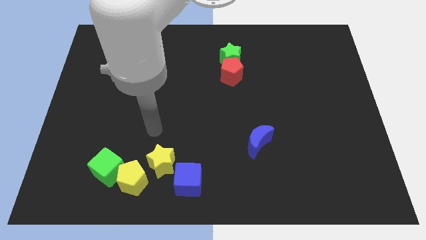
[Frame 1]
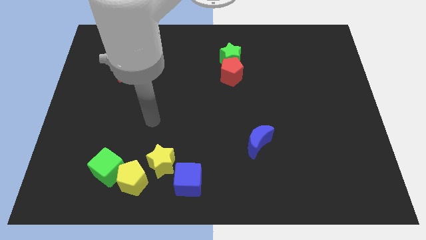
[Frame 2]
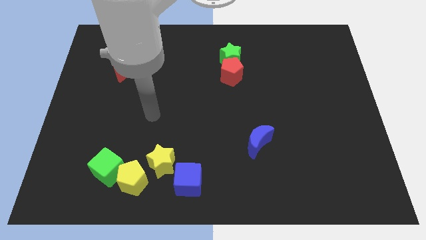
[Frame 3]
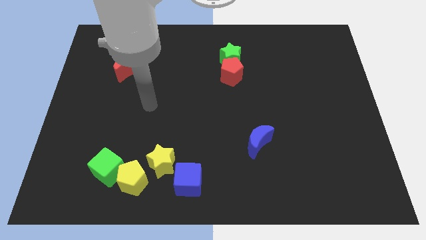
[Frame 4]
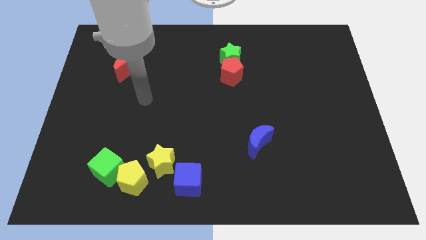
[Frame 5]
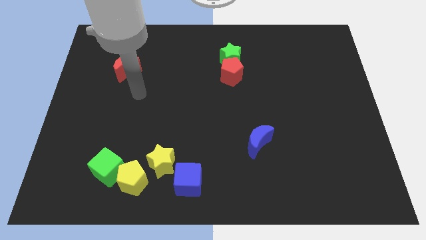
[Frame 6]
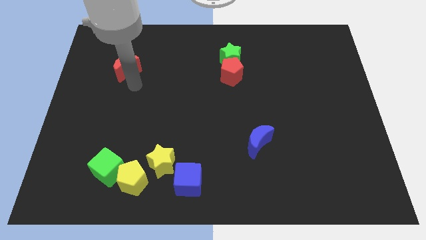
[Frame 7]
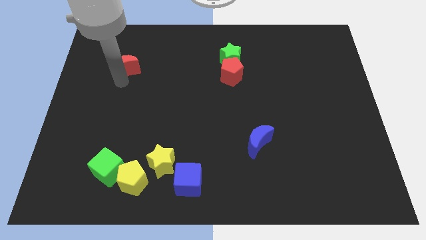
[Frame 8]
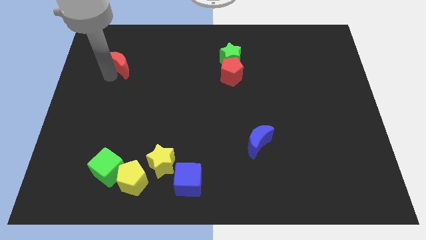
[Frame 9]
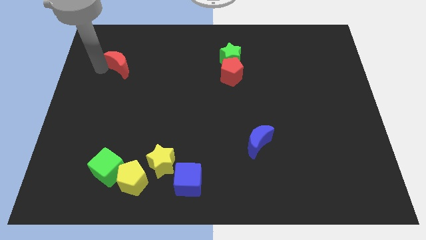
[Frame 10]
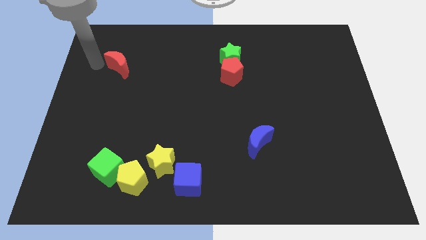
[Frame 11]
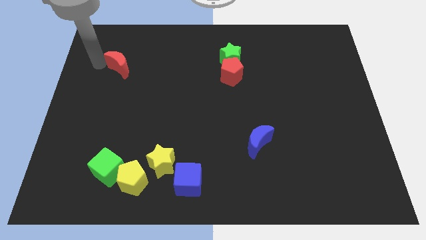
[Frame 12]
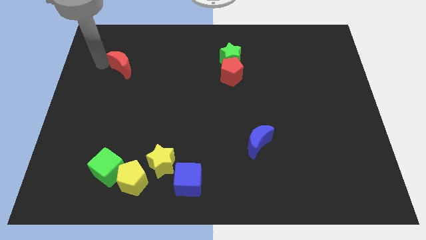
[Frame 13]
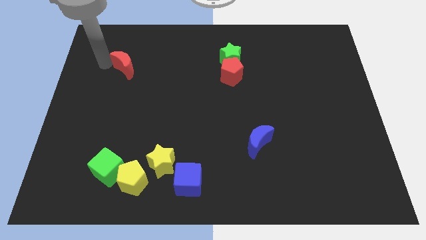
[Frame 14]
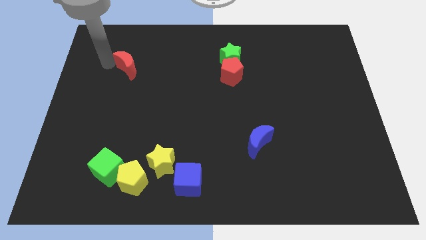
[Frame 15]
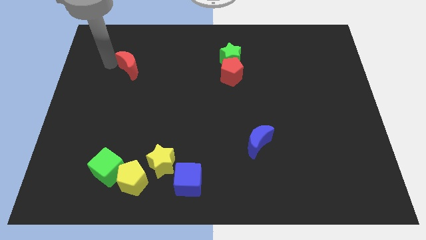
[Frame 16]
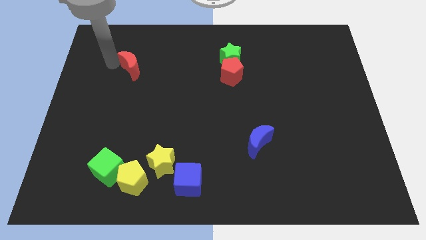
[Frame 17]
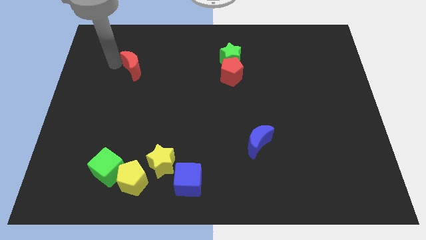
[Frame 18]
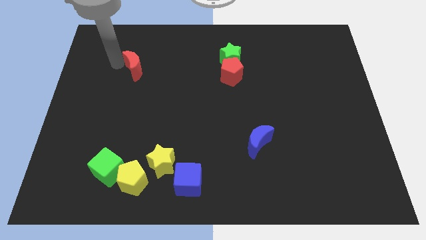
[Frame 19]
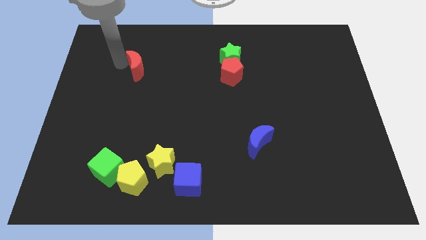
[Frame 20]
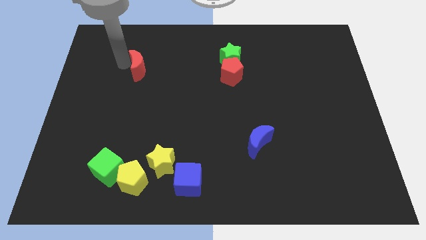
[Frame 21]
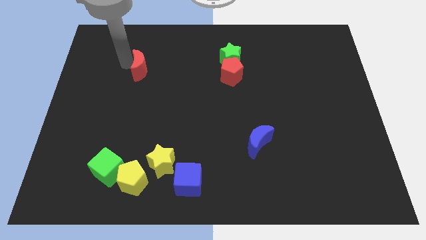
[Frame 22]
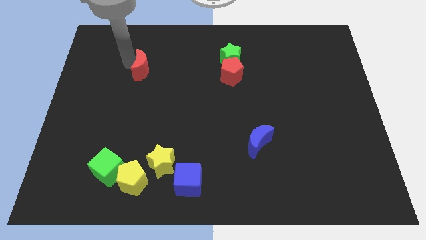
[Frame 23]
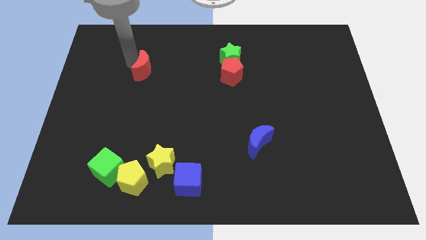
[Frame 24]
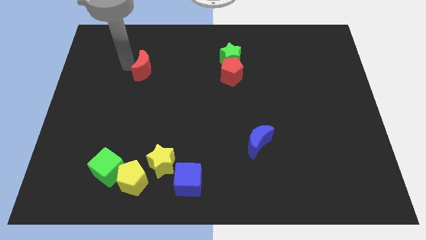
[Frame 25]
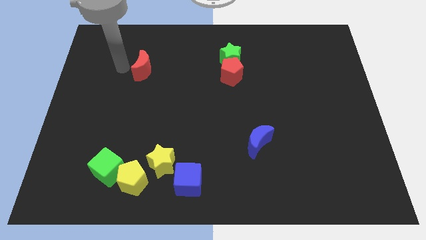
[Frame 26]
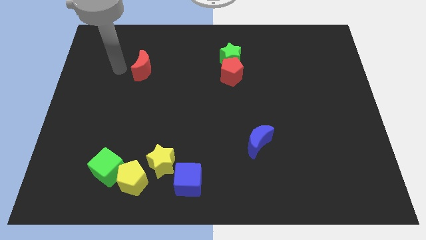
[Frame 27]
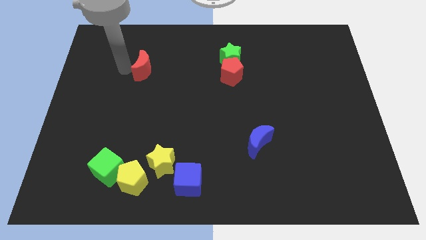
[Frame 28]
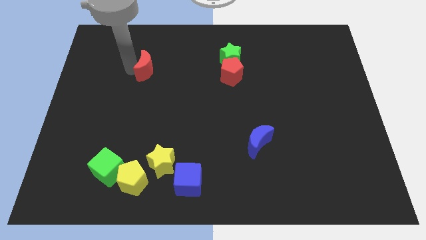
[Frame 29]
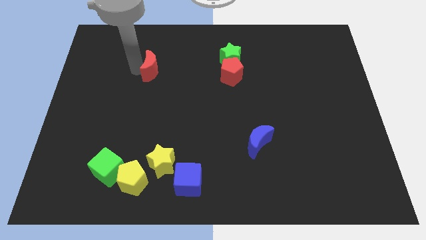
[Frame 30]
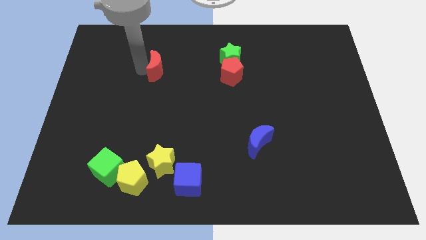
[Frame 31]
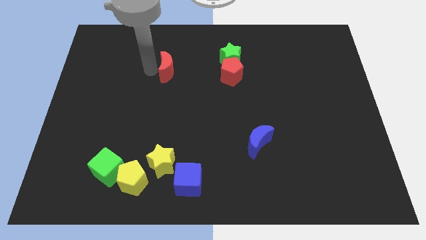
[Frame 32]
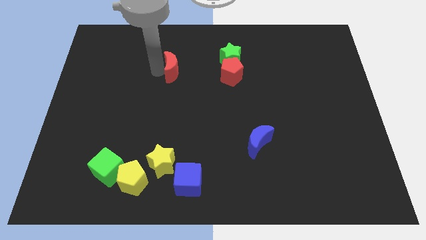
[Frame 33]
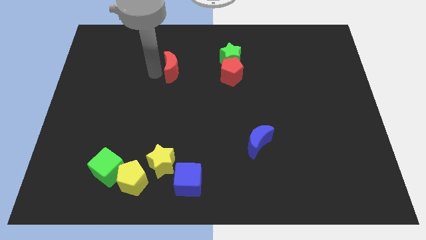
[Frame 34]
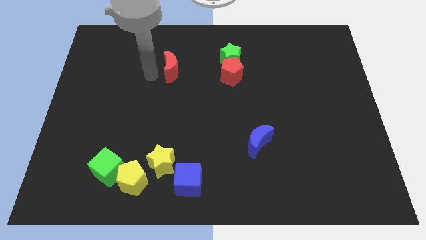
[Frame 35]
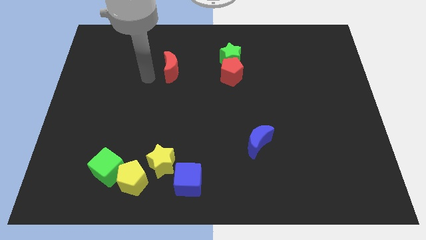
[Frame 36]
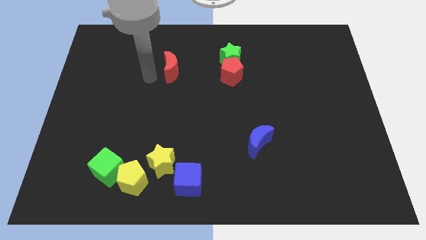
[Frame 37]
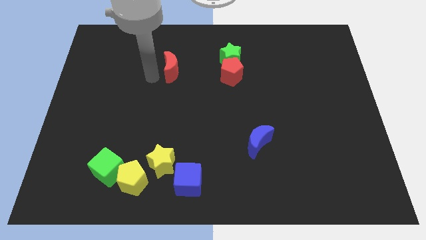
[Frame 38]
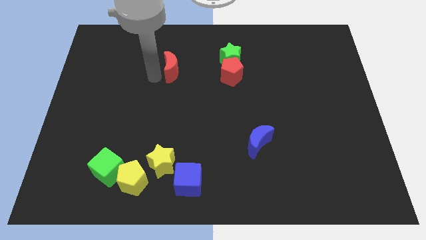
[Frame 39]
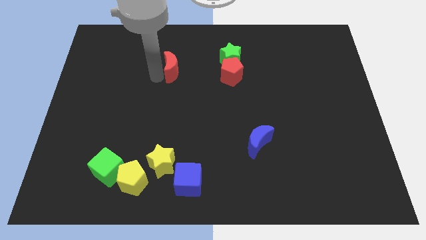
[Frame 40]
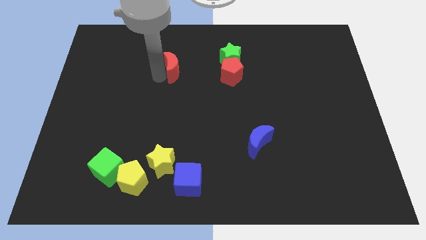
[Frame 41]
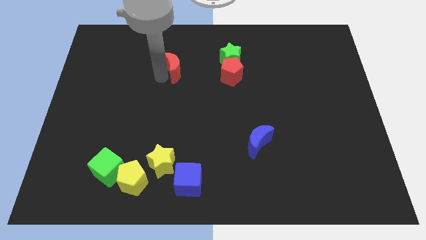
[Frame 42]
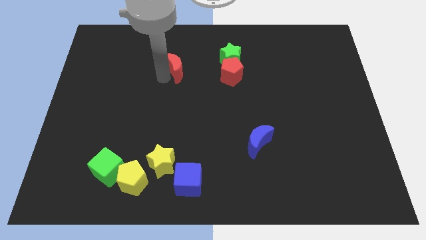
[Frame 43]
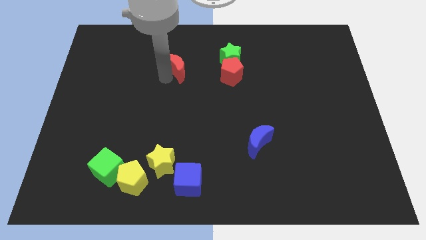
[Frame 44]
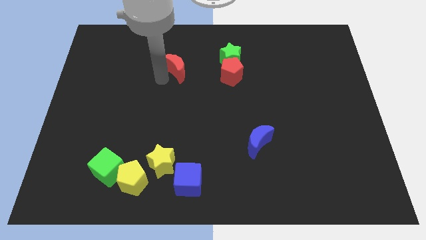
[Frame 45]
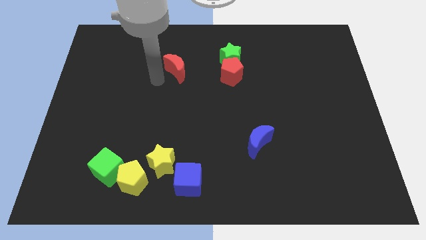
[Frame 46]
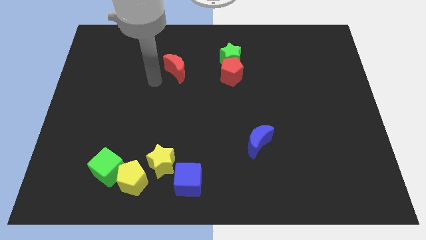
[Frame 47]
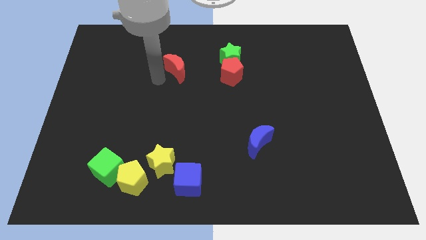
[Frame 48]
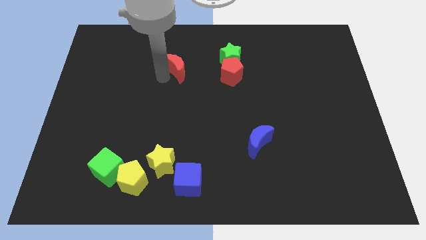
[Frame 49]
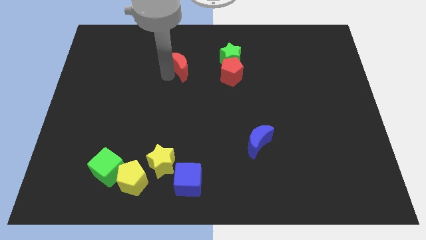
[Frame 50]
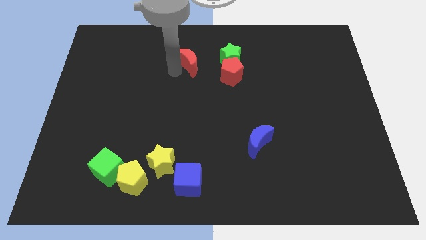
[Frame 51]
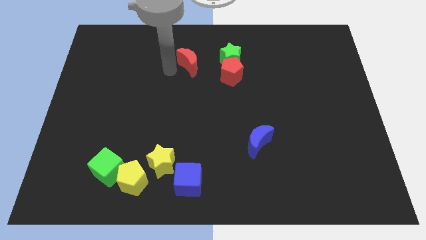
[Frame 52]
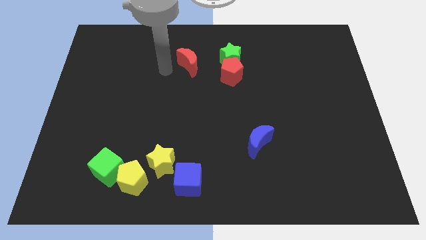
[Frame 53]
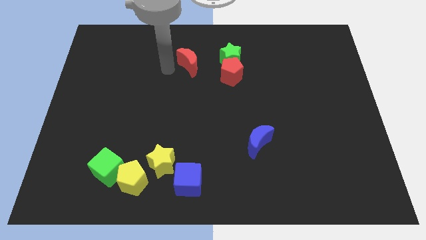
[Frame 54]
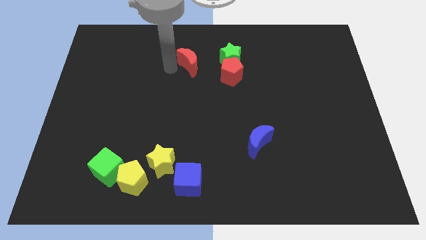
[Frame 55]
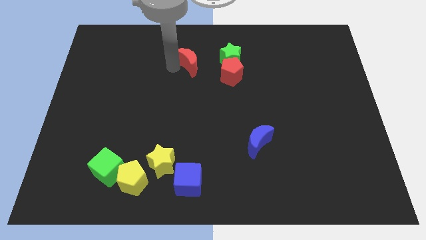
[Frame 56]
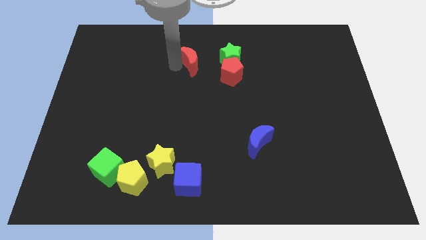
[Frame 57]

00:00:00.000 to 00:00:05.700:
push the red moon to the top left side of the red pentagon

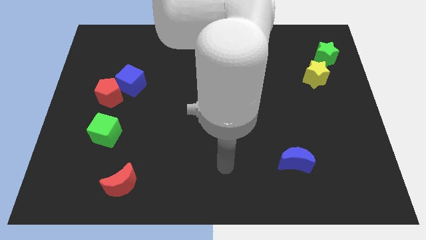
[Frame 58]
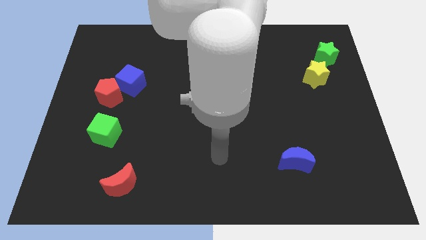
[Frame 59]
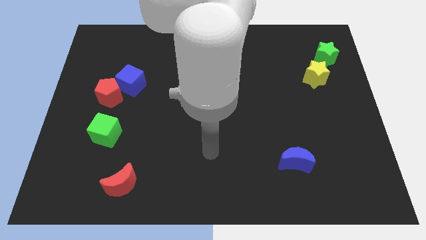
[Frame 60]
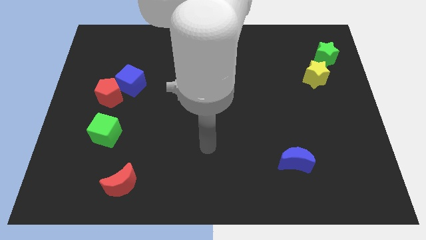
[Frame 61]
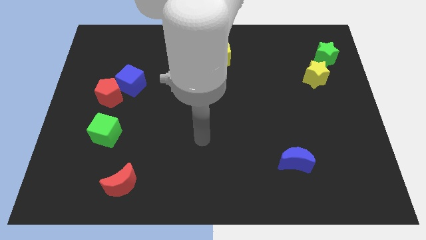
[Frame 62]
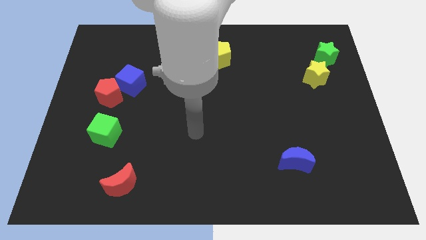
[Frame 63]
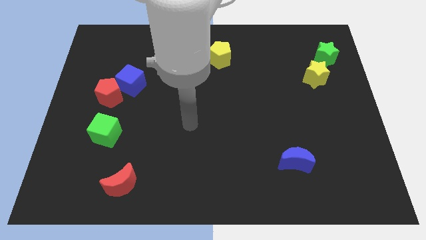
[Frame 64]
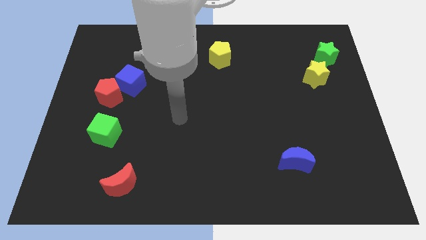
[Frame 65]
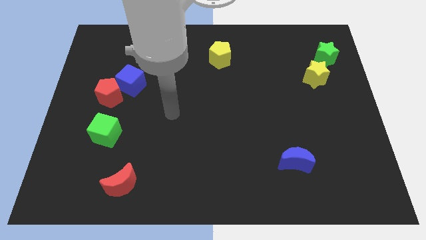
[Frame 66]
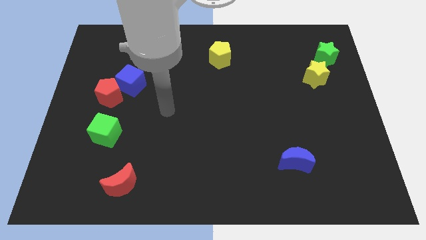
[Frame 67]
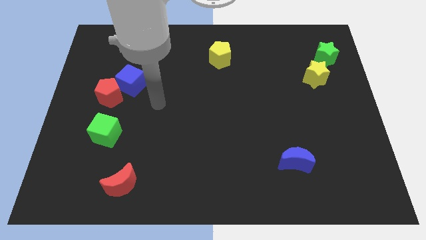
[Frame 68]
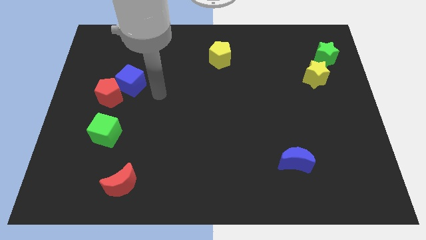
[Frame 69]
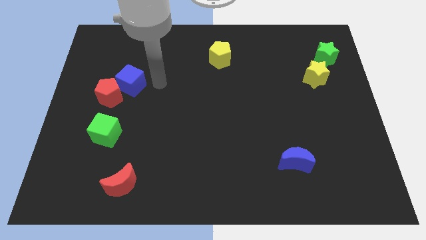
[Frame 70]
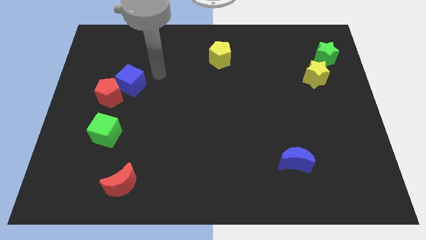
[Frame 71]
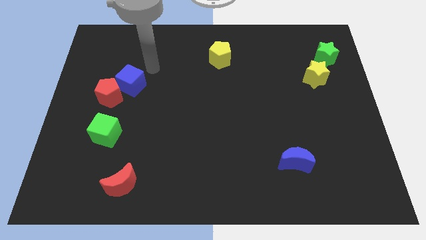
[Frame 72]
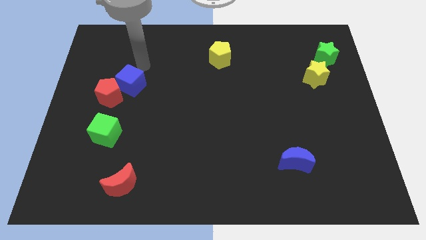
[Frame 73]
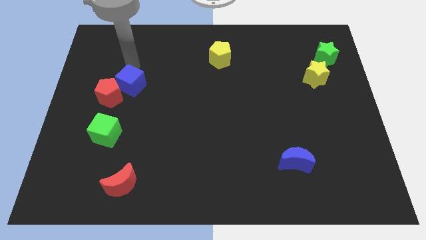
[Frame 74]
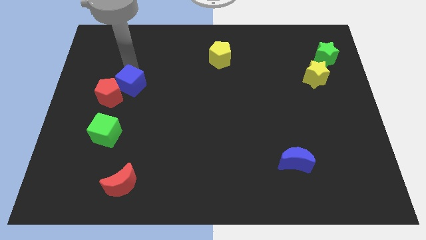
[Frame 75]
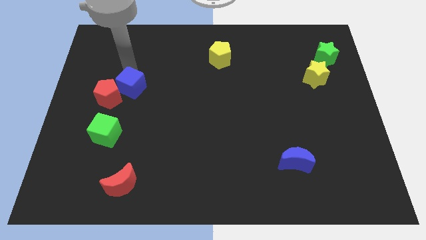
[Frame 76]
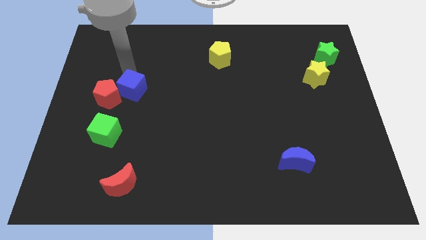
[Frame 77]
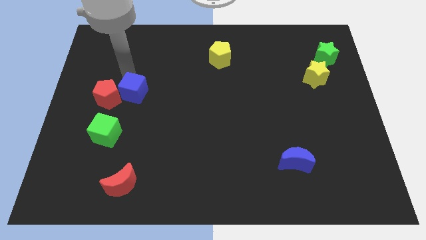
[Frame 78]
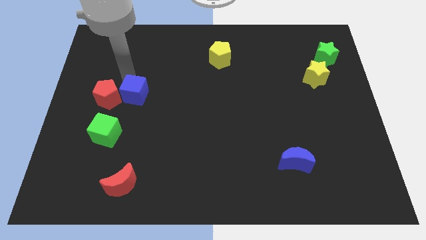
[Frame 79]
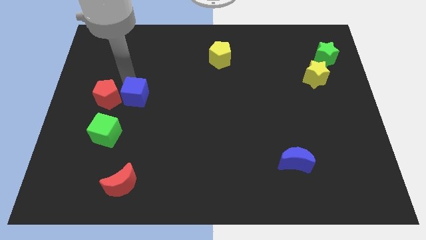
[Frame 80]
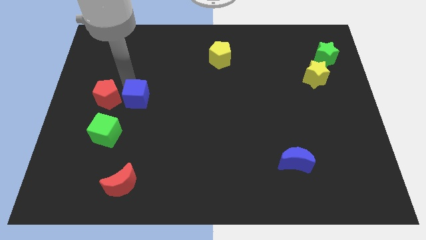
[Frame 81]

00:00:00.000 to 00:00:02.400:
put the blue cube diagonally up and to the right of the green cube
